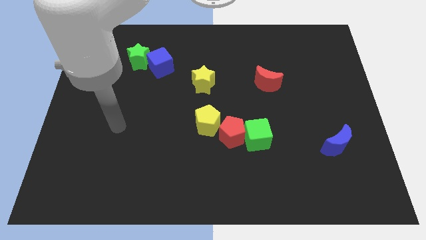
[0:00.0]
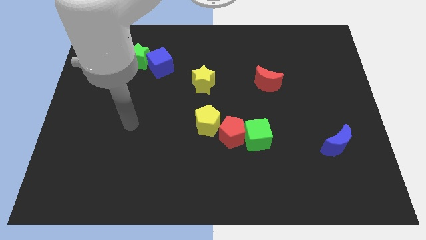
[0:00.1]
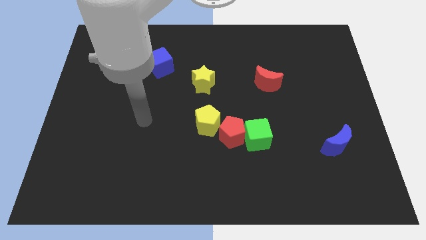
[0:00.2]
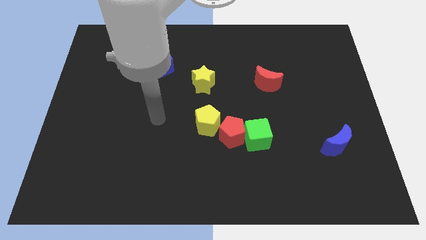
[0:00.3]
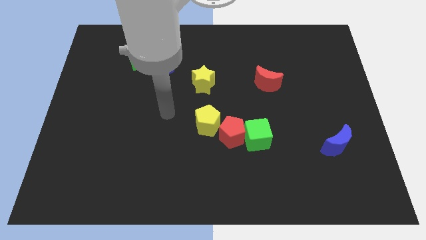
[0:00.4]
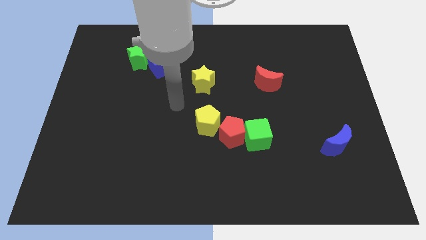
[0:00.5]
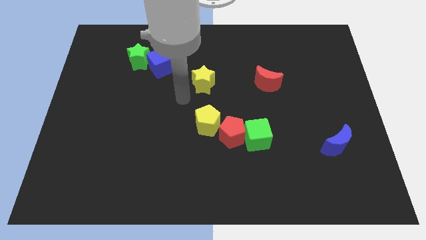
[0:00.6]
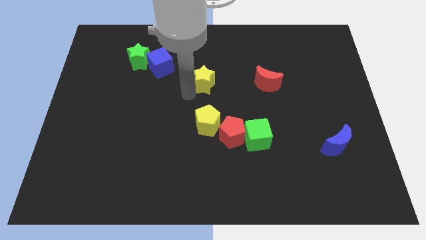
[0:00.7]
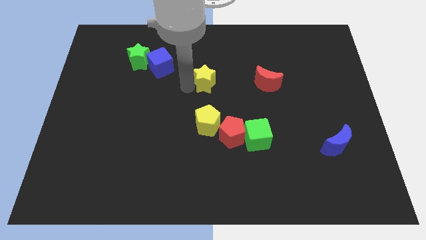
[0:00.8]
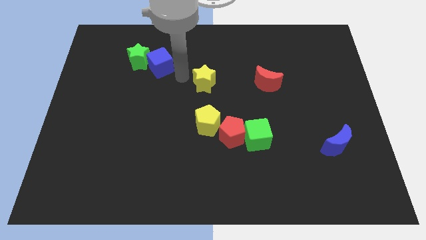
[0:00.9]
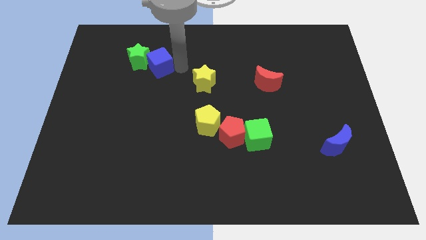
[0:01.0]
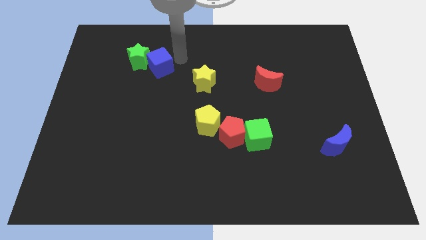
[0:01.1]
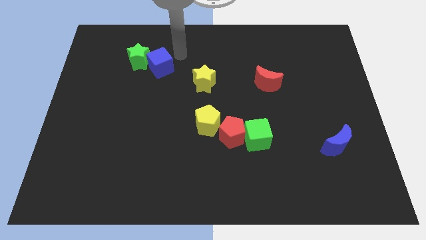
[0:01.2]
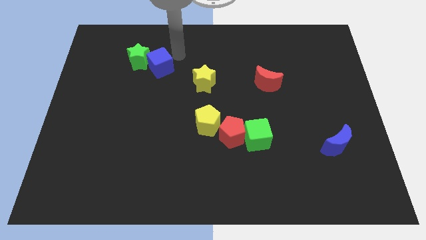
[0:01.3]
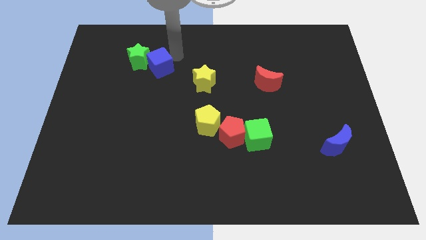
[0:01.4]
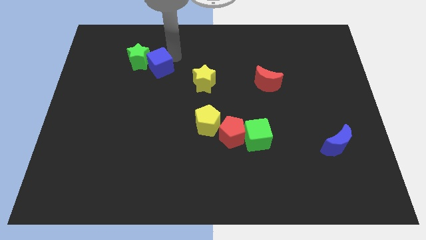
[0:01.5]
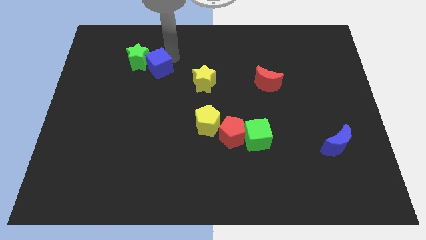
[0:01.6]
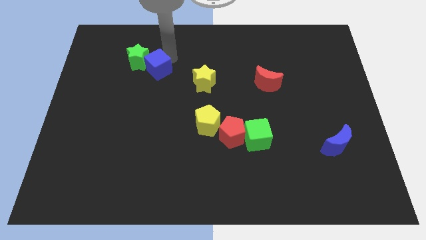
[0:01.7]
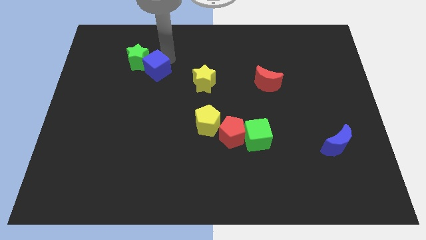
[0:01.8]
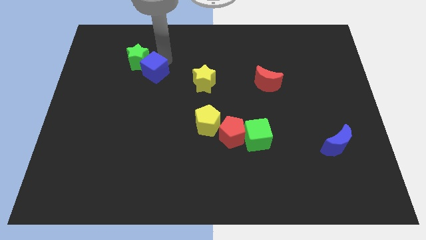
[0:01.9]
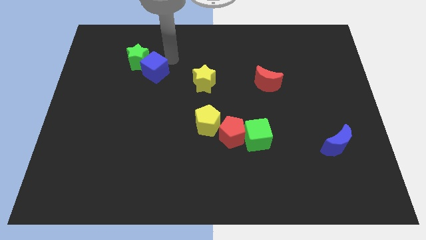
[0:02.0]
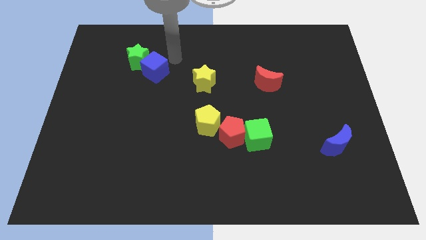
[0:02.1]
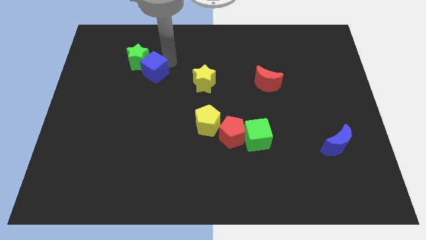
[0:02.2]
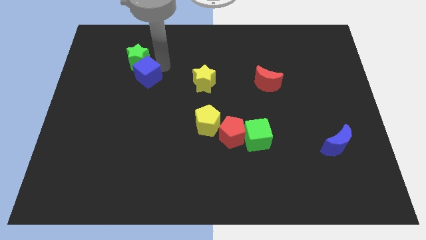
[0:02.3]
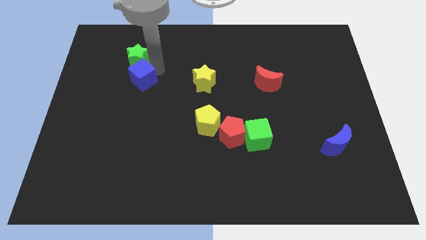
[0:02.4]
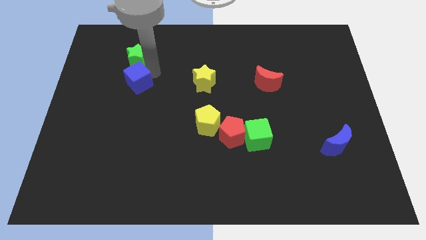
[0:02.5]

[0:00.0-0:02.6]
slightly push the blue cube downwards and then left

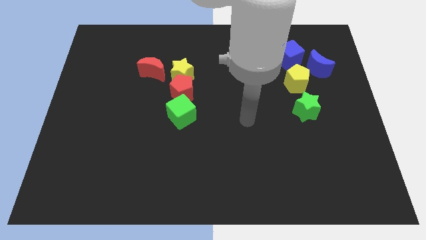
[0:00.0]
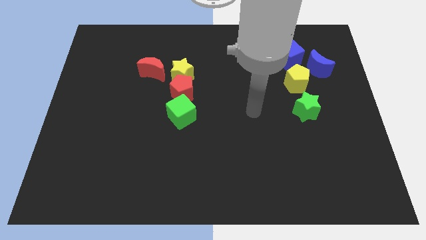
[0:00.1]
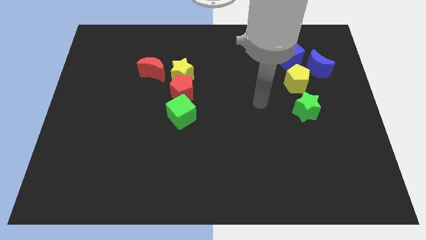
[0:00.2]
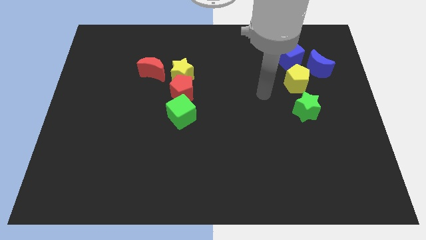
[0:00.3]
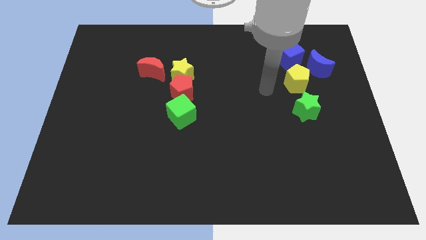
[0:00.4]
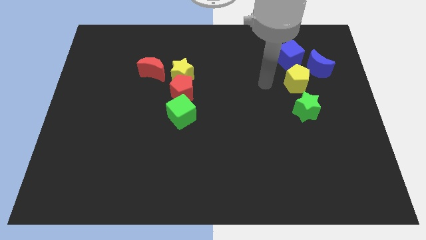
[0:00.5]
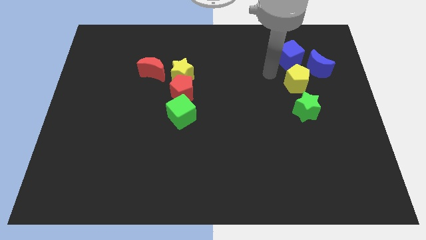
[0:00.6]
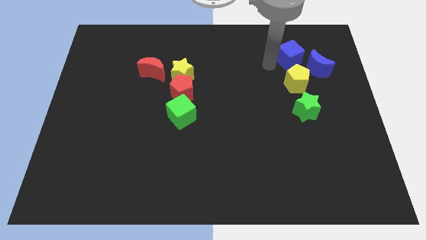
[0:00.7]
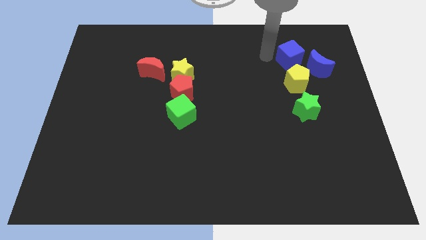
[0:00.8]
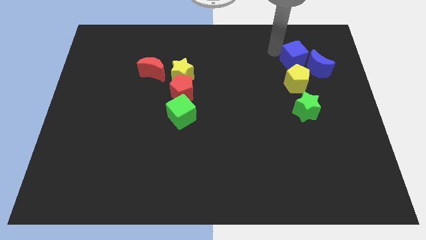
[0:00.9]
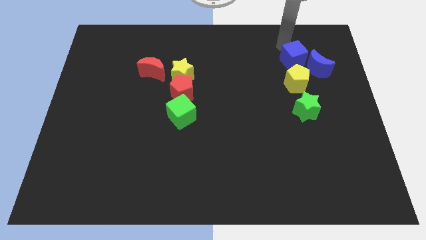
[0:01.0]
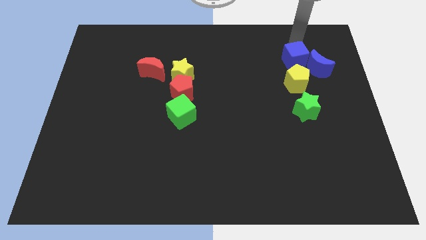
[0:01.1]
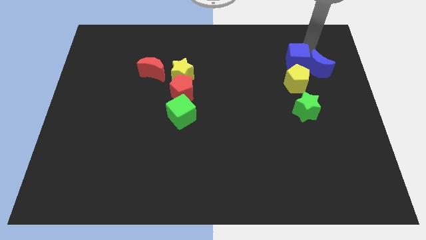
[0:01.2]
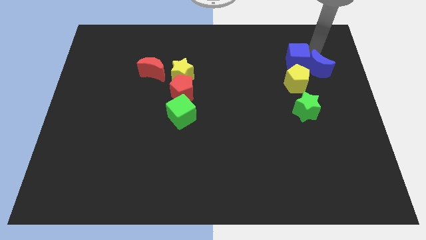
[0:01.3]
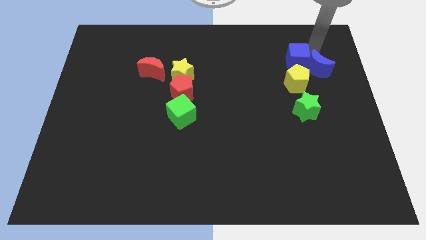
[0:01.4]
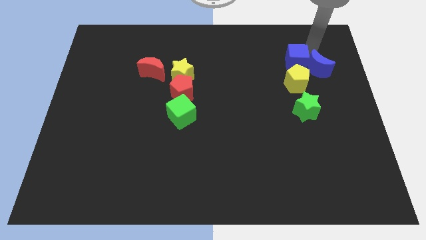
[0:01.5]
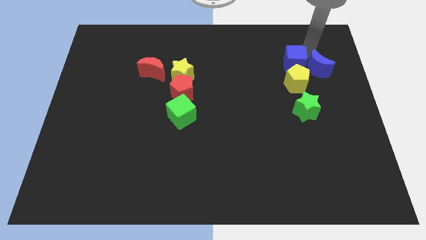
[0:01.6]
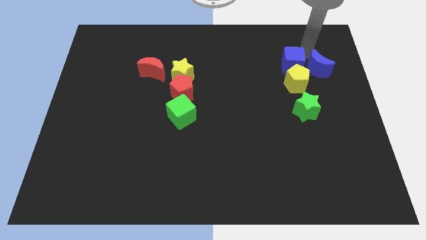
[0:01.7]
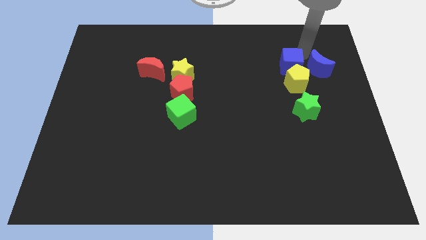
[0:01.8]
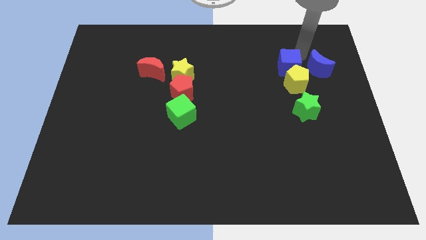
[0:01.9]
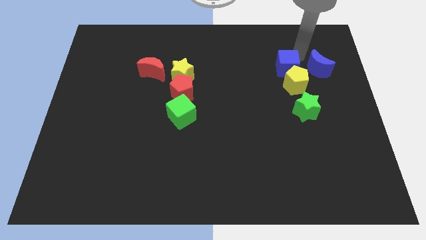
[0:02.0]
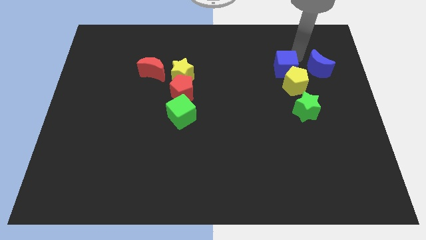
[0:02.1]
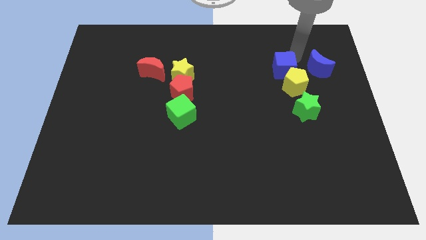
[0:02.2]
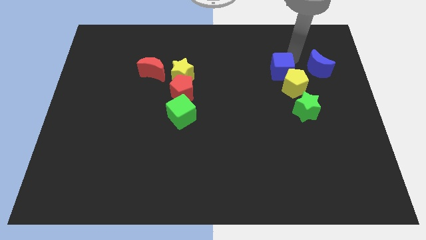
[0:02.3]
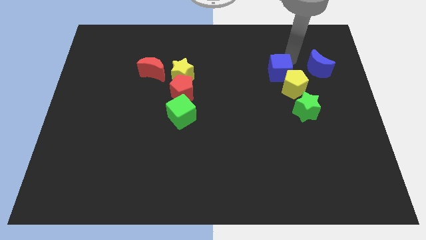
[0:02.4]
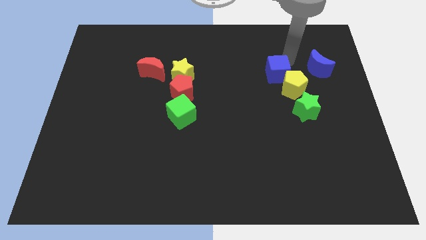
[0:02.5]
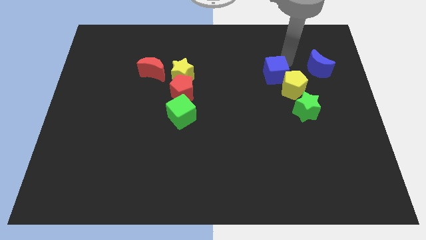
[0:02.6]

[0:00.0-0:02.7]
slightly push the blue cube down and to the left diagonally

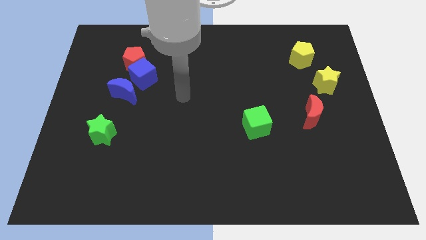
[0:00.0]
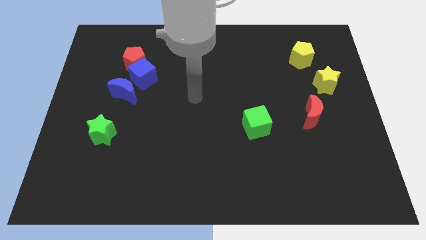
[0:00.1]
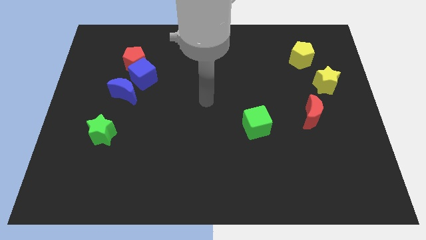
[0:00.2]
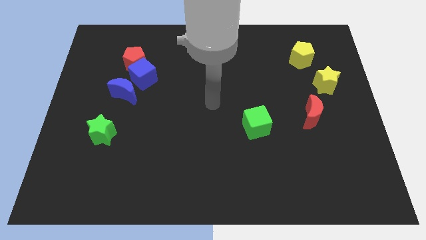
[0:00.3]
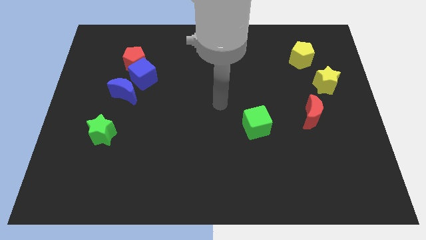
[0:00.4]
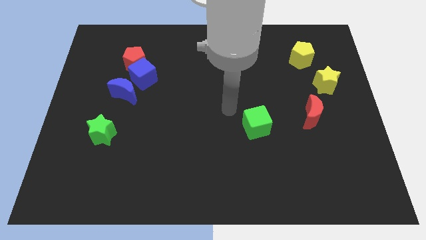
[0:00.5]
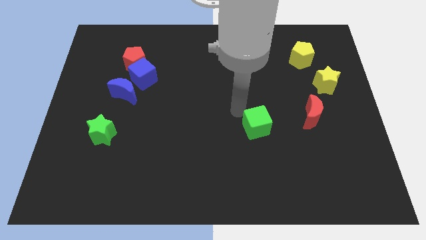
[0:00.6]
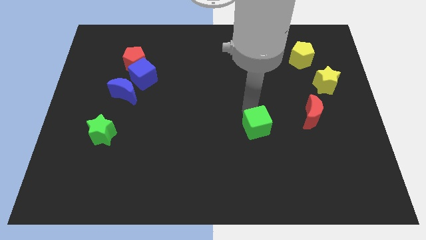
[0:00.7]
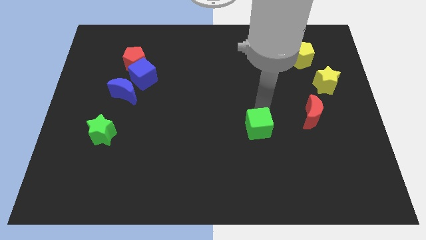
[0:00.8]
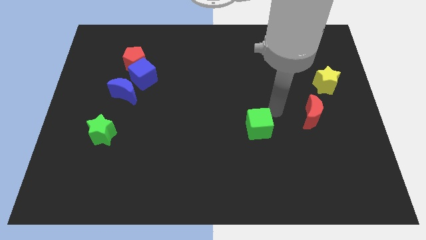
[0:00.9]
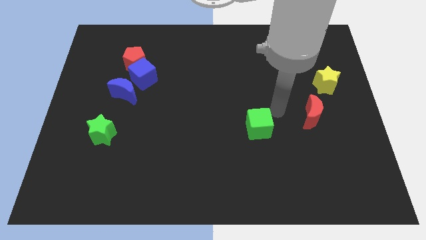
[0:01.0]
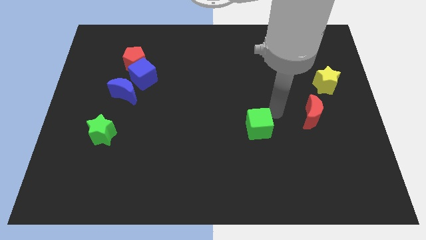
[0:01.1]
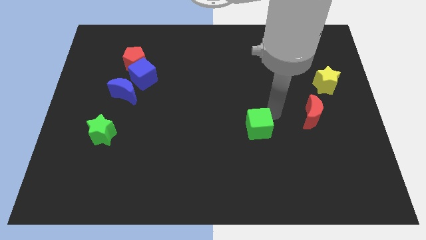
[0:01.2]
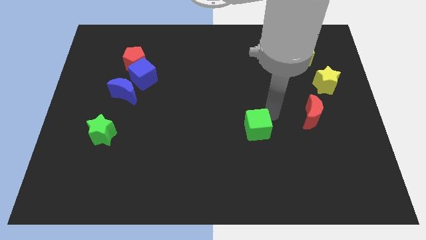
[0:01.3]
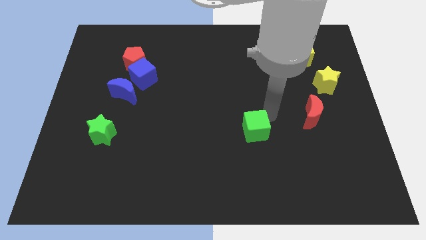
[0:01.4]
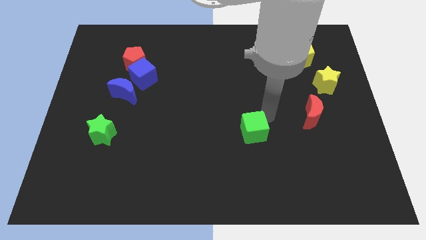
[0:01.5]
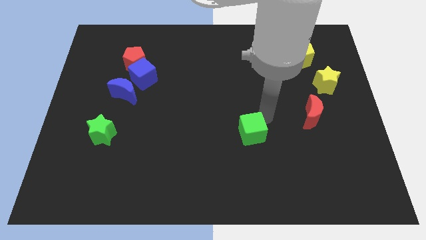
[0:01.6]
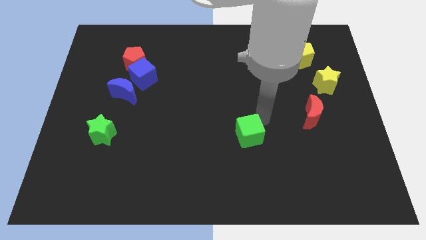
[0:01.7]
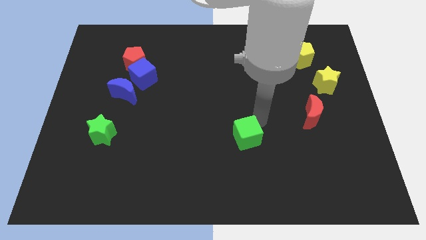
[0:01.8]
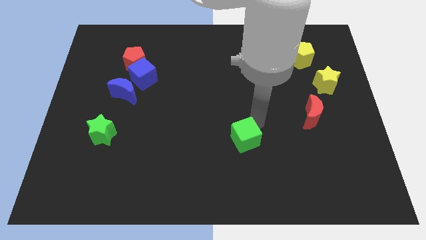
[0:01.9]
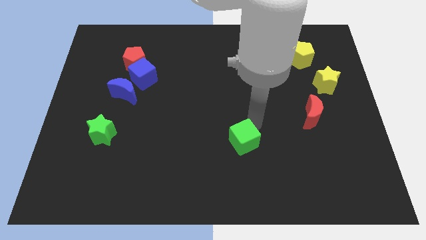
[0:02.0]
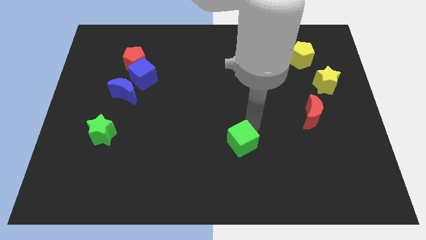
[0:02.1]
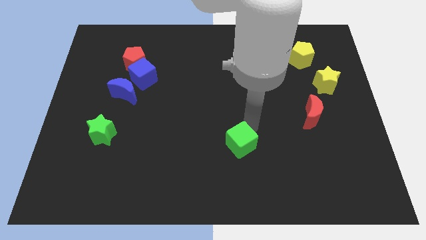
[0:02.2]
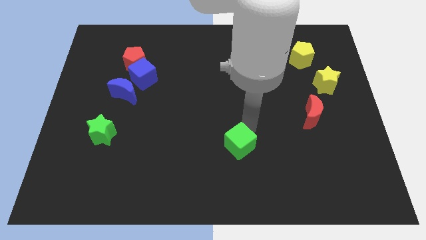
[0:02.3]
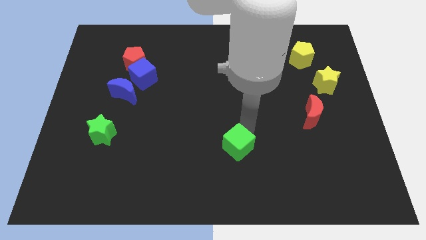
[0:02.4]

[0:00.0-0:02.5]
slide the green cube somewhat down and to the left diagonally

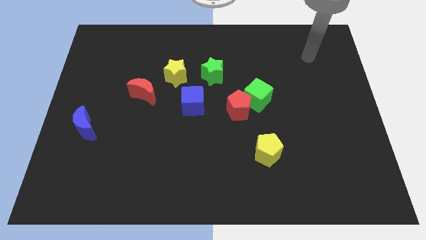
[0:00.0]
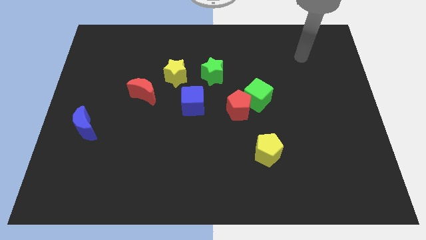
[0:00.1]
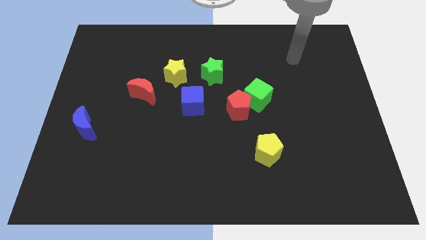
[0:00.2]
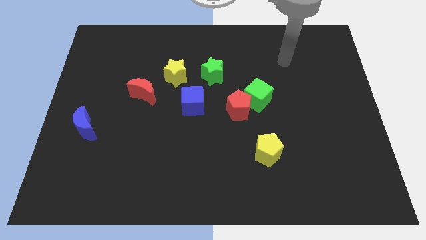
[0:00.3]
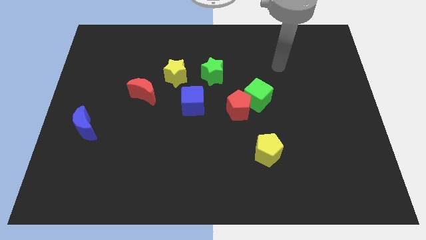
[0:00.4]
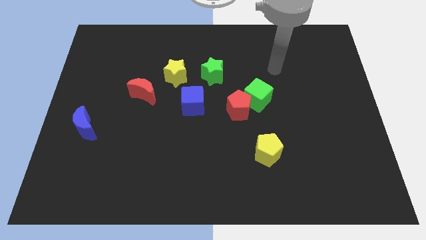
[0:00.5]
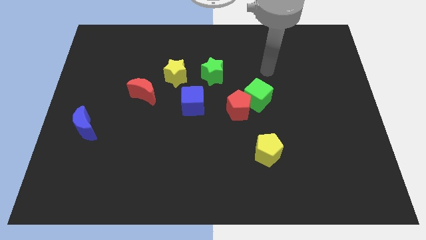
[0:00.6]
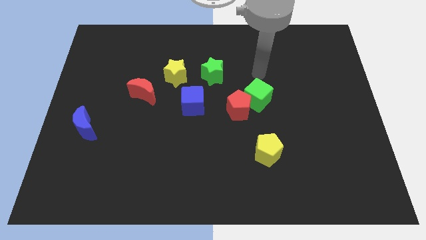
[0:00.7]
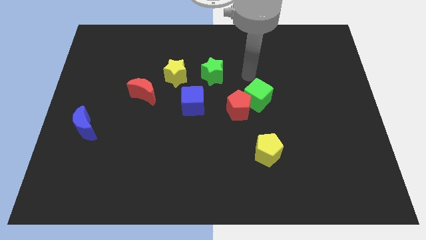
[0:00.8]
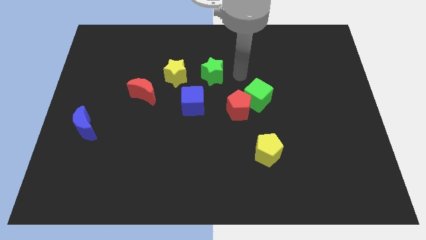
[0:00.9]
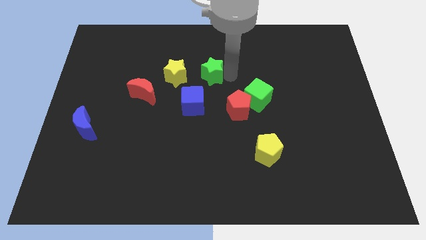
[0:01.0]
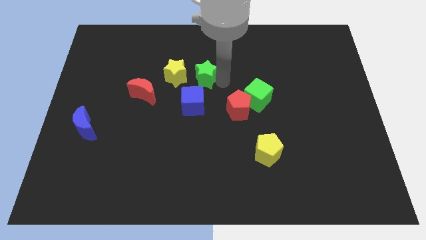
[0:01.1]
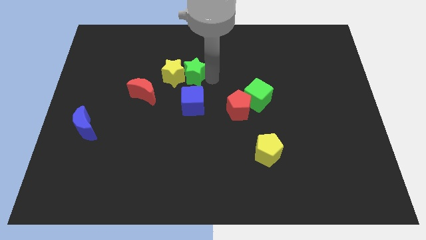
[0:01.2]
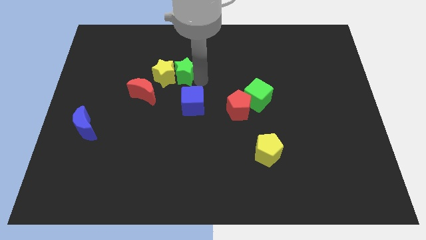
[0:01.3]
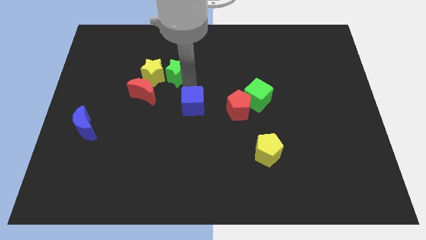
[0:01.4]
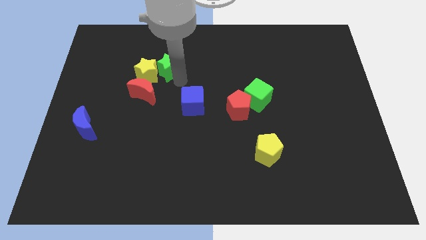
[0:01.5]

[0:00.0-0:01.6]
slightly push the yellow star to the left
